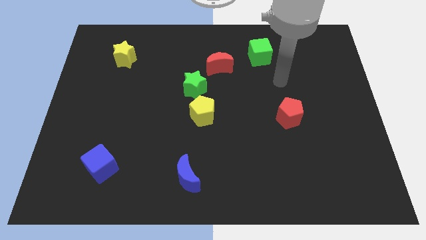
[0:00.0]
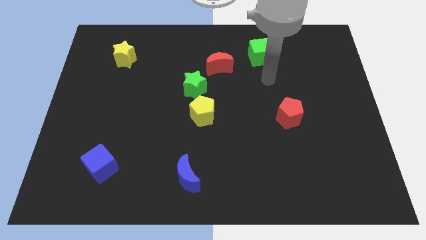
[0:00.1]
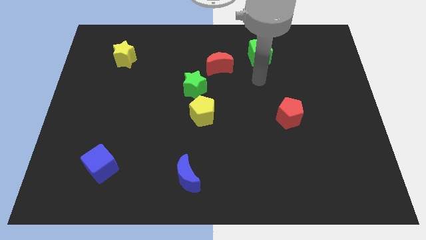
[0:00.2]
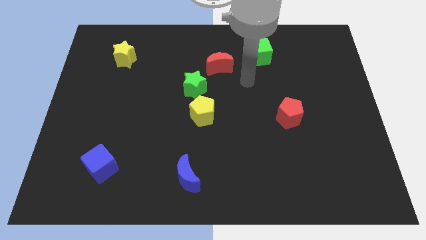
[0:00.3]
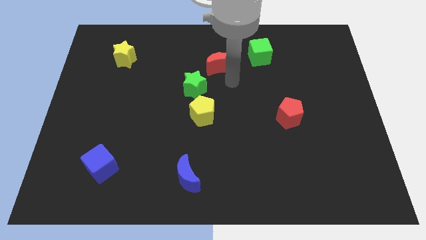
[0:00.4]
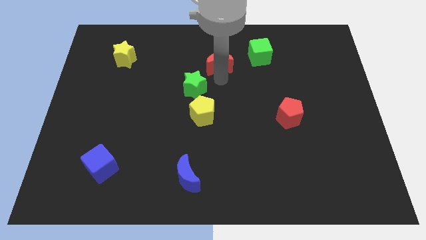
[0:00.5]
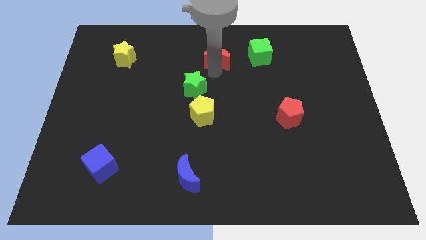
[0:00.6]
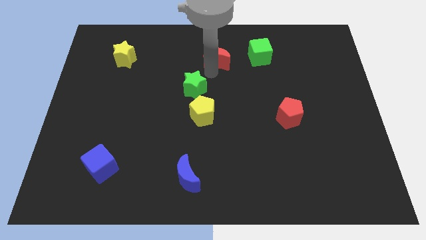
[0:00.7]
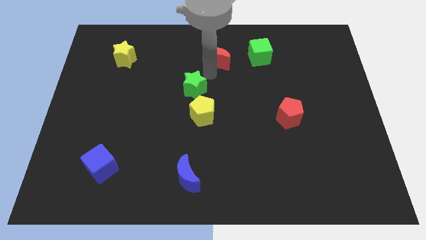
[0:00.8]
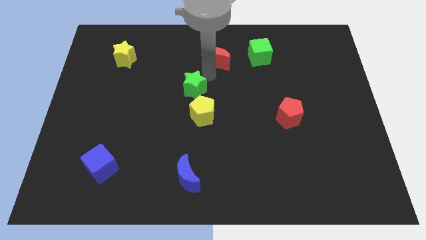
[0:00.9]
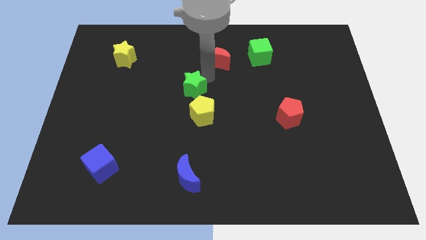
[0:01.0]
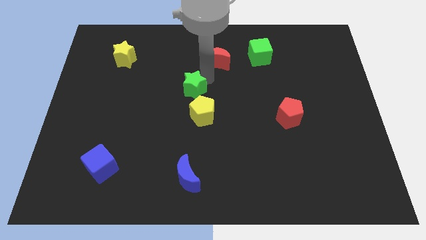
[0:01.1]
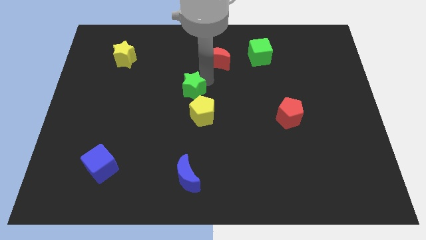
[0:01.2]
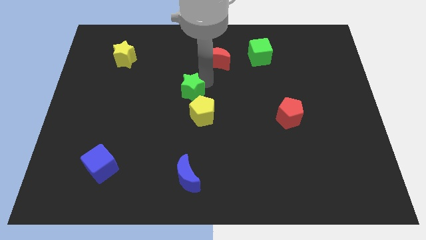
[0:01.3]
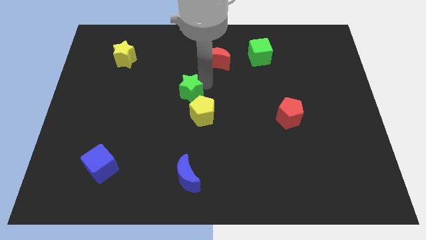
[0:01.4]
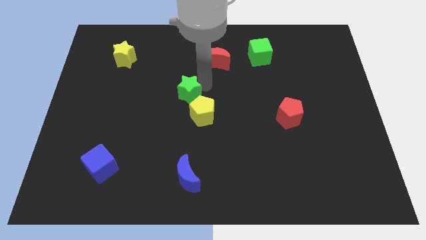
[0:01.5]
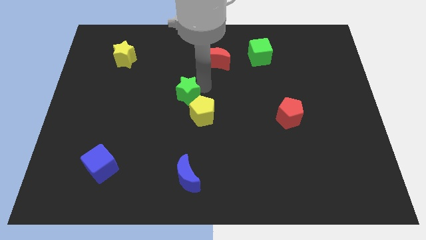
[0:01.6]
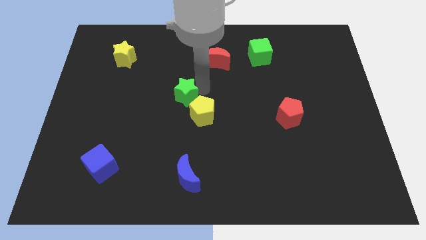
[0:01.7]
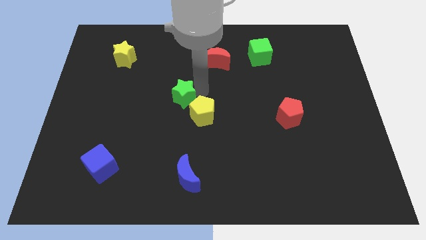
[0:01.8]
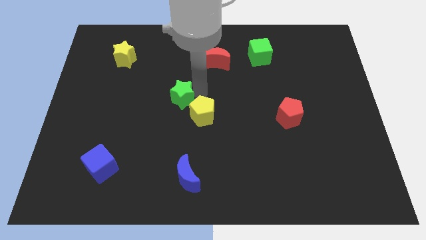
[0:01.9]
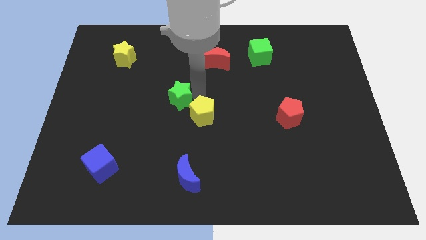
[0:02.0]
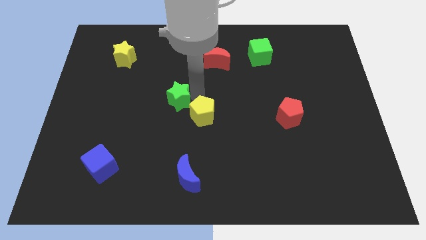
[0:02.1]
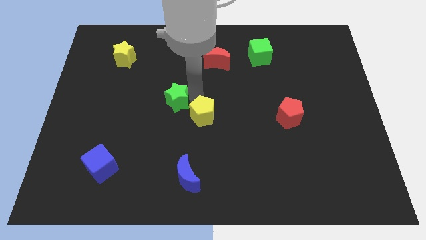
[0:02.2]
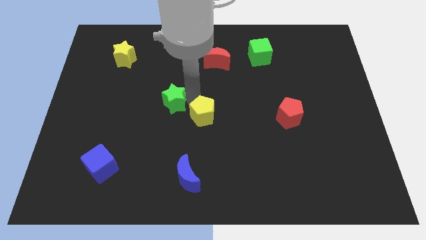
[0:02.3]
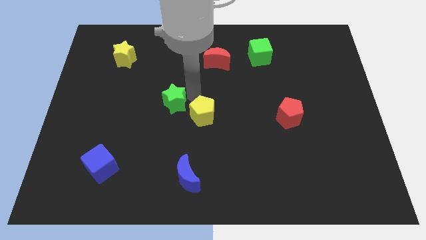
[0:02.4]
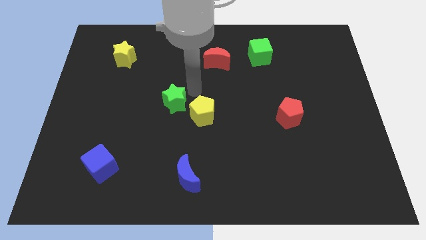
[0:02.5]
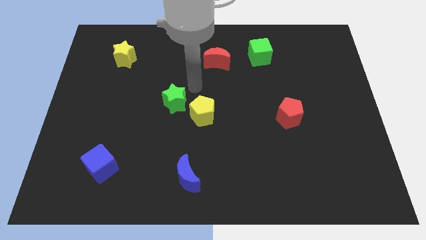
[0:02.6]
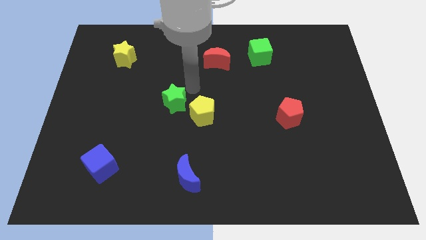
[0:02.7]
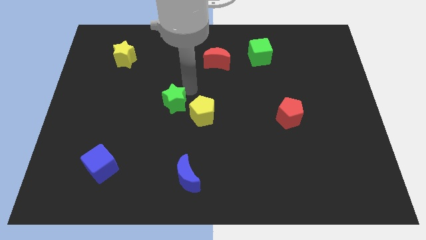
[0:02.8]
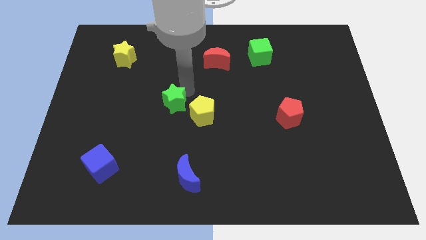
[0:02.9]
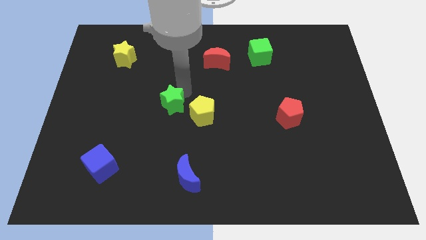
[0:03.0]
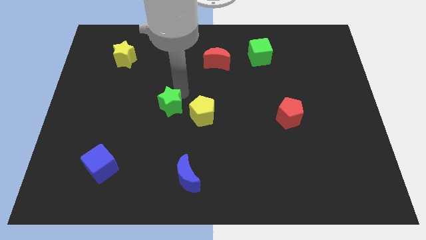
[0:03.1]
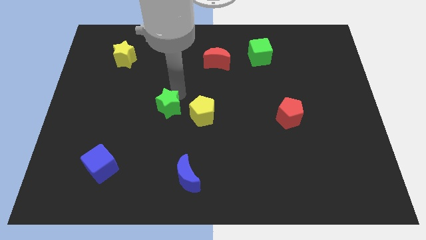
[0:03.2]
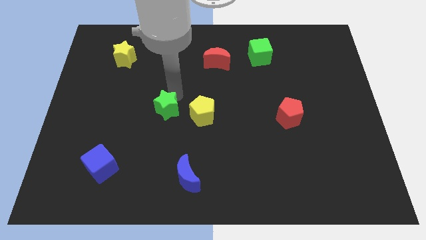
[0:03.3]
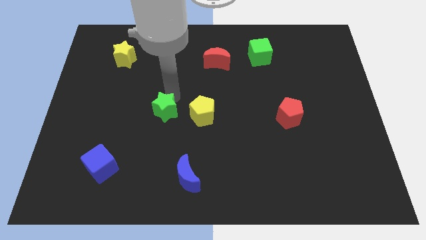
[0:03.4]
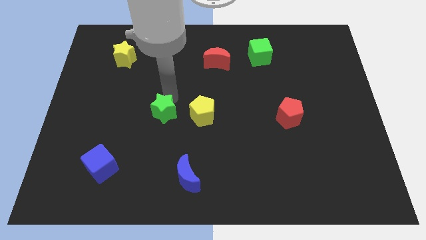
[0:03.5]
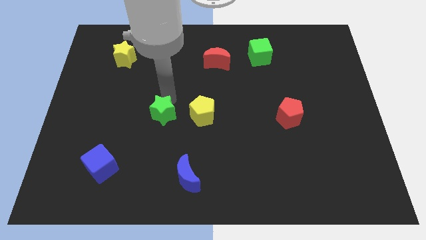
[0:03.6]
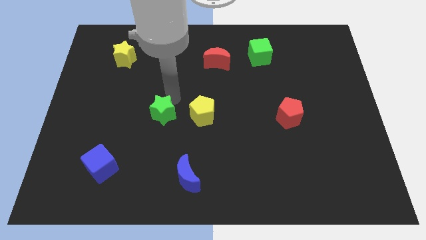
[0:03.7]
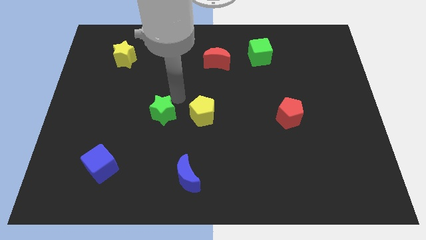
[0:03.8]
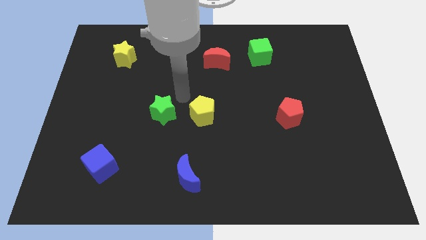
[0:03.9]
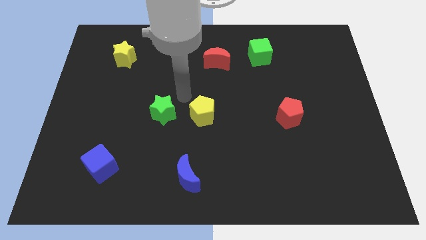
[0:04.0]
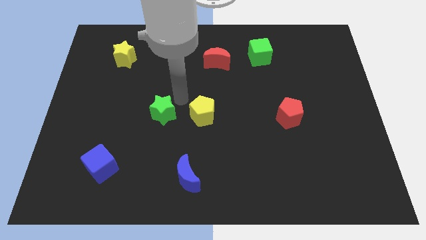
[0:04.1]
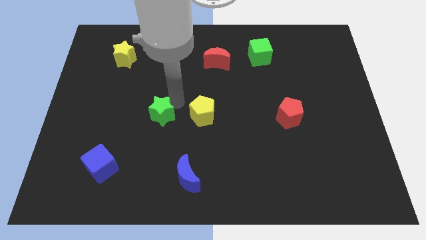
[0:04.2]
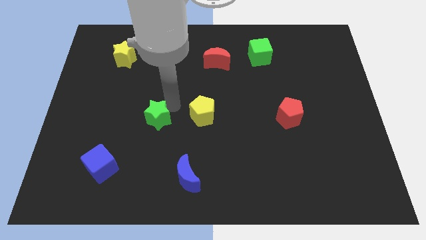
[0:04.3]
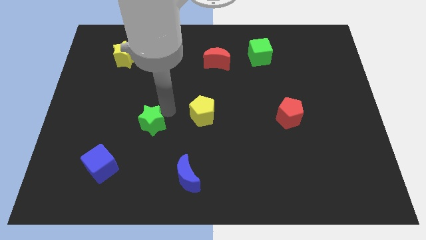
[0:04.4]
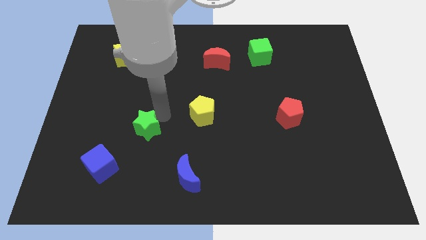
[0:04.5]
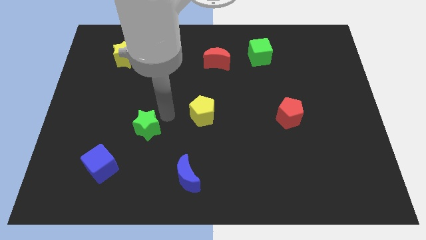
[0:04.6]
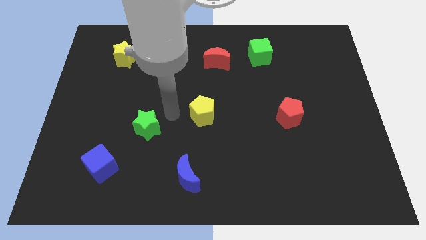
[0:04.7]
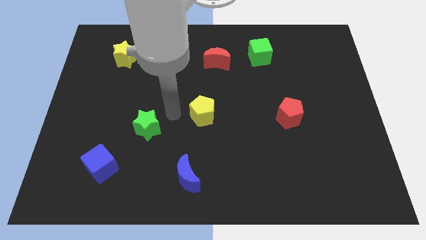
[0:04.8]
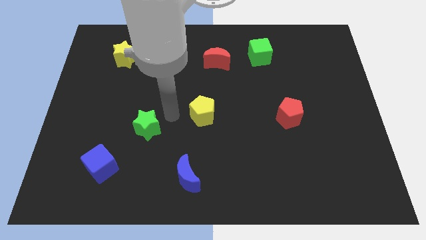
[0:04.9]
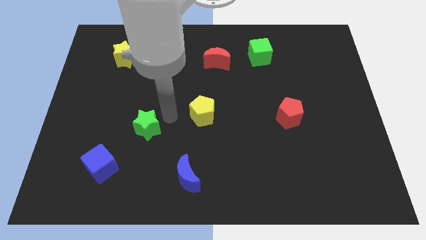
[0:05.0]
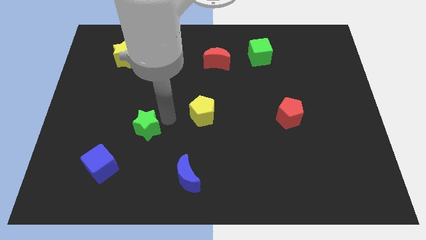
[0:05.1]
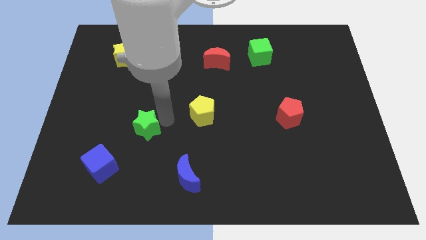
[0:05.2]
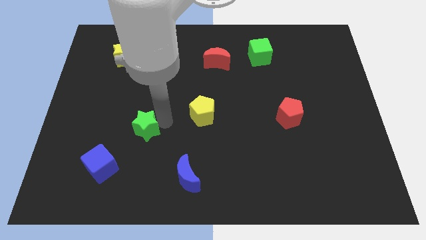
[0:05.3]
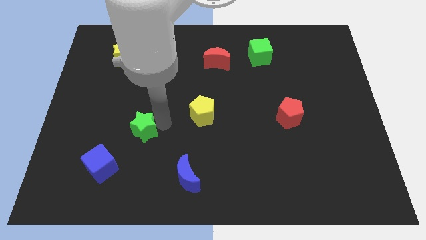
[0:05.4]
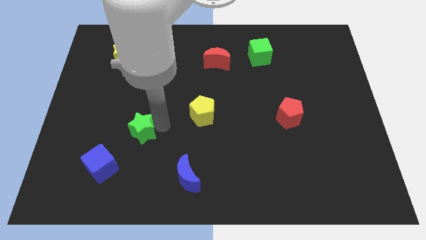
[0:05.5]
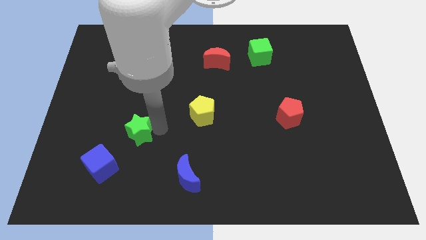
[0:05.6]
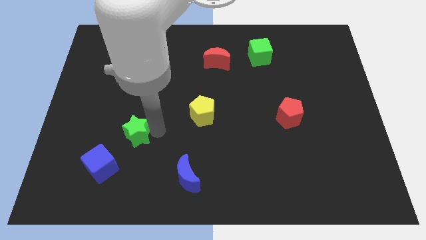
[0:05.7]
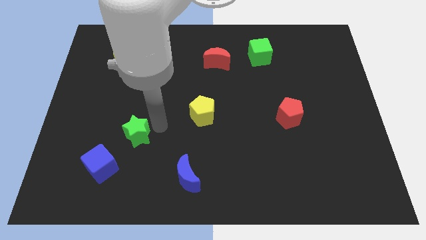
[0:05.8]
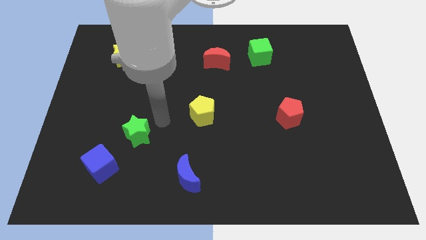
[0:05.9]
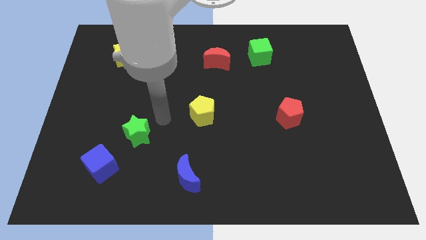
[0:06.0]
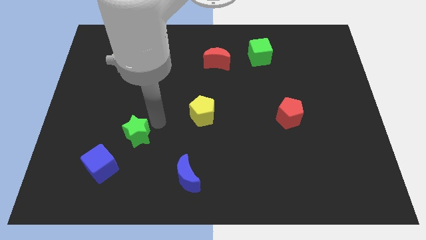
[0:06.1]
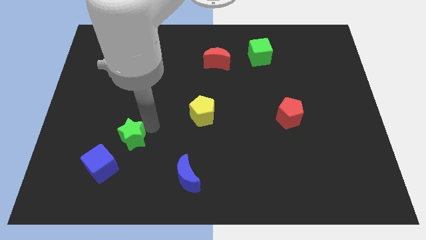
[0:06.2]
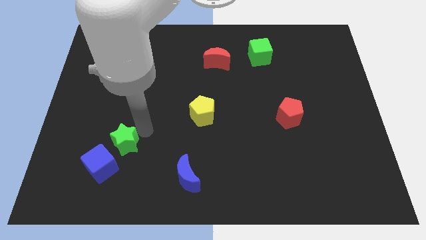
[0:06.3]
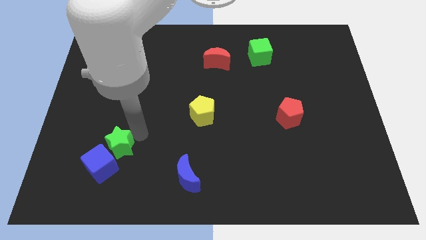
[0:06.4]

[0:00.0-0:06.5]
push the green star next to the blue cube

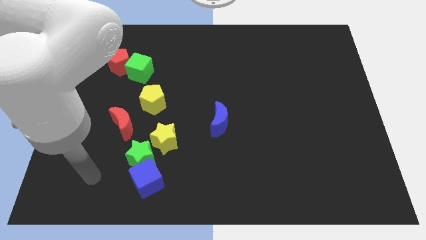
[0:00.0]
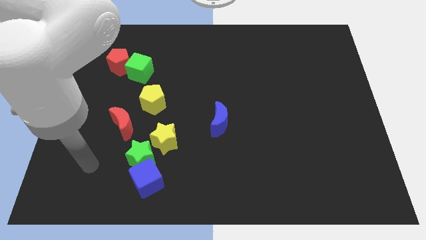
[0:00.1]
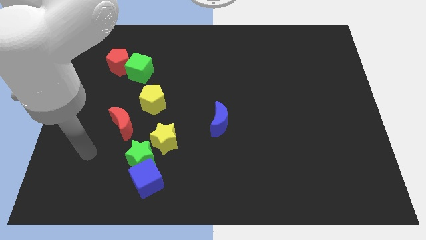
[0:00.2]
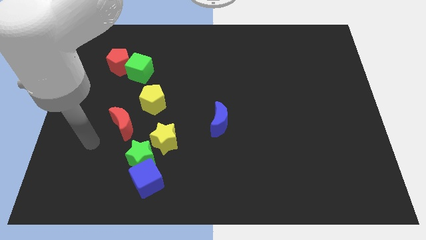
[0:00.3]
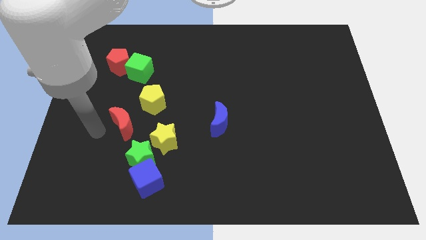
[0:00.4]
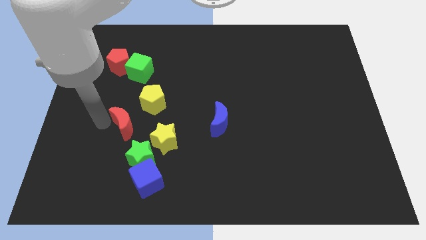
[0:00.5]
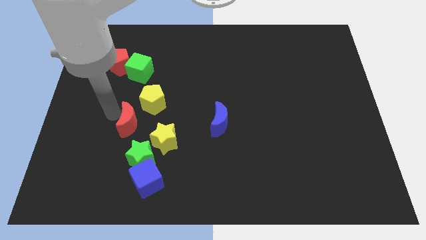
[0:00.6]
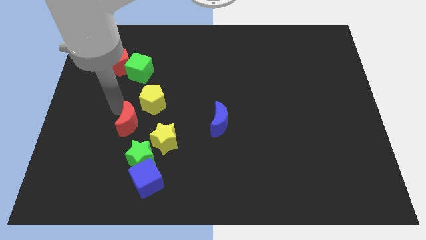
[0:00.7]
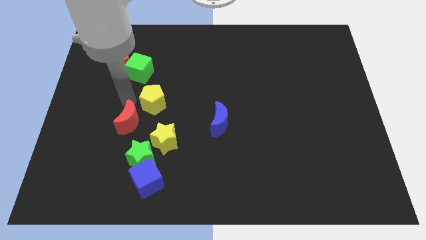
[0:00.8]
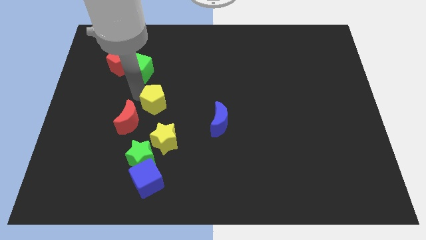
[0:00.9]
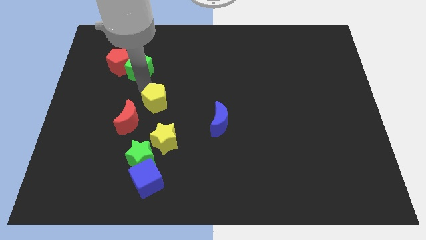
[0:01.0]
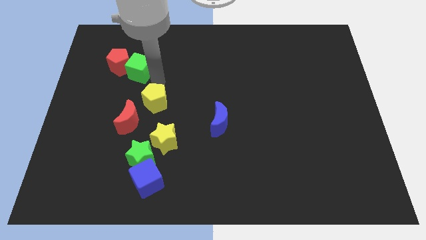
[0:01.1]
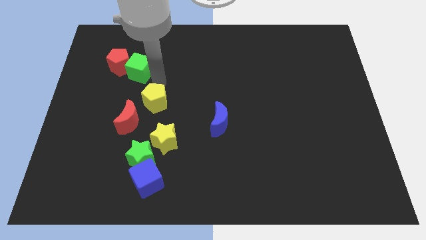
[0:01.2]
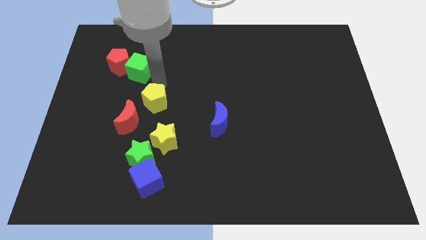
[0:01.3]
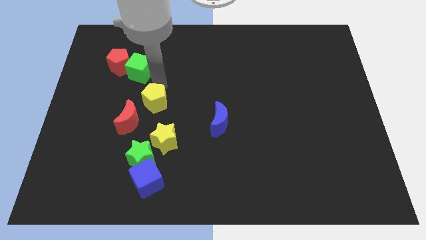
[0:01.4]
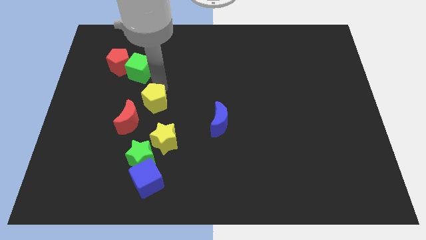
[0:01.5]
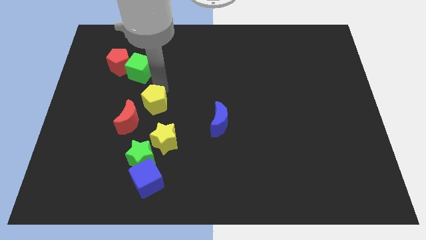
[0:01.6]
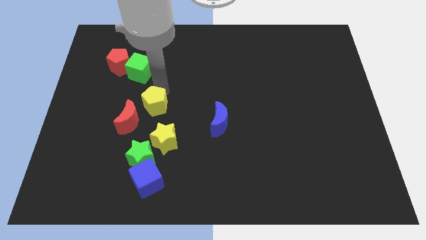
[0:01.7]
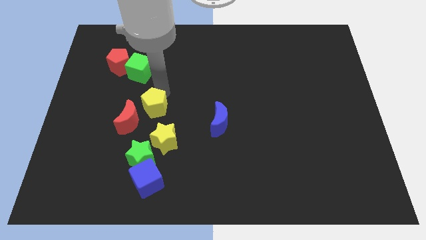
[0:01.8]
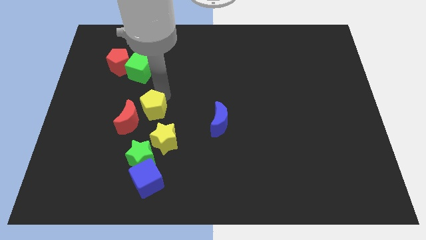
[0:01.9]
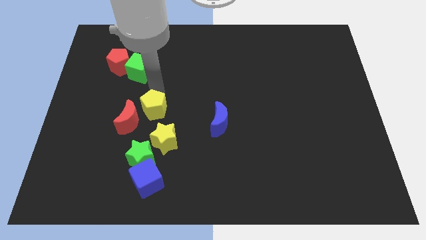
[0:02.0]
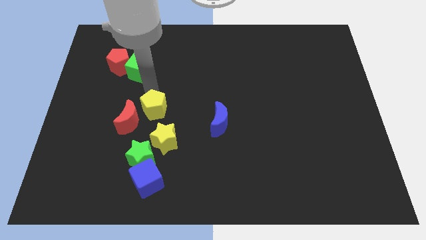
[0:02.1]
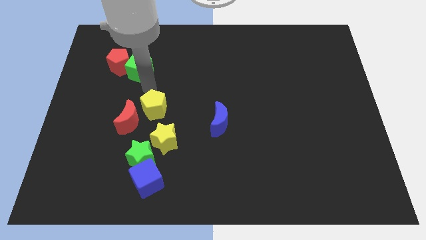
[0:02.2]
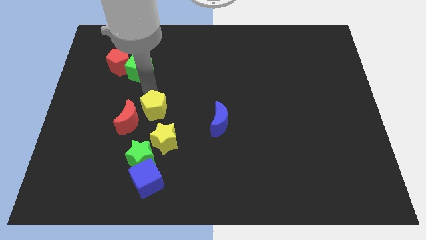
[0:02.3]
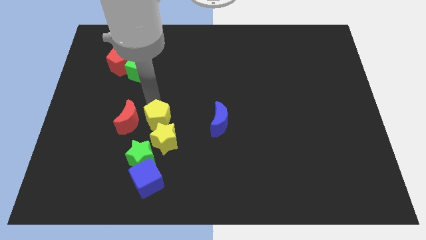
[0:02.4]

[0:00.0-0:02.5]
put the yellow pentagon next to the yellow star
